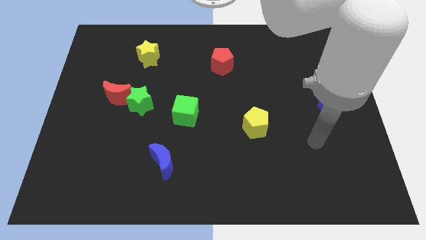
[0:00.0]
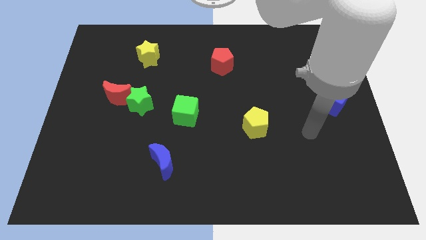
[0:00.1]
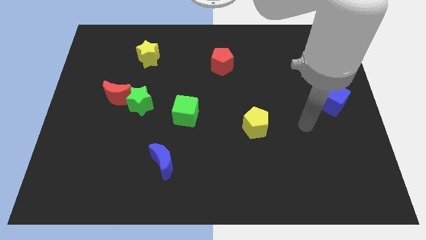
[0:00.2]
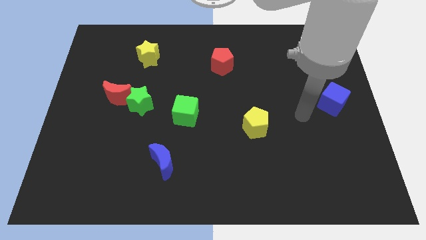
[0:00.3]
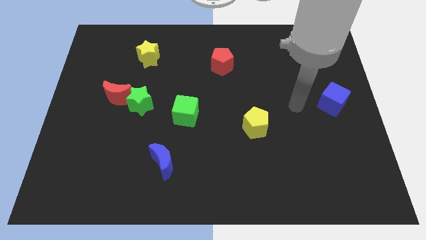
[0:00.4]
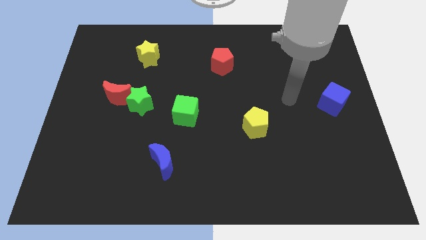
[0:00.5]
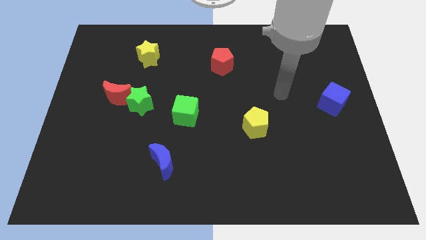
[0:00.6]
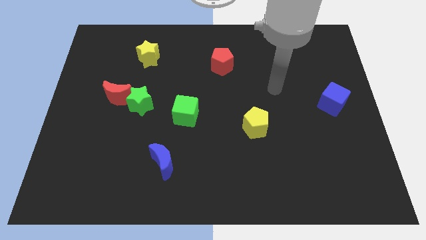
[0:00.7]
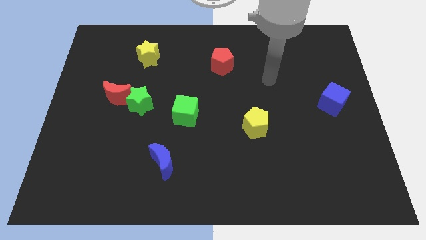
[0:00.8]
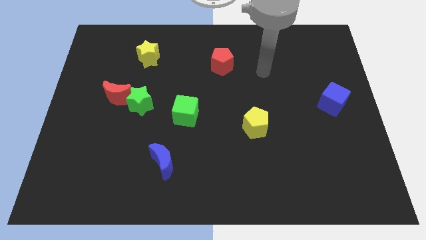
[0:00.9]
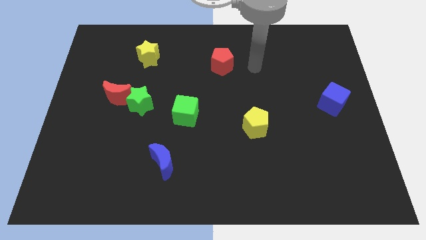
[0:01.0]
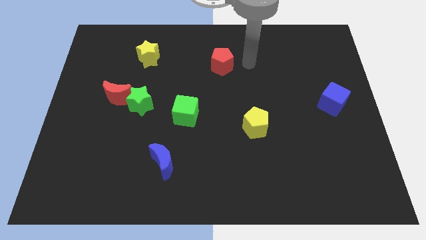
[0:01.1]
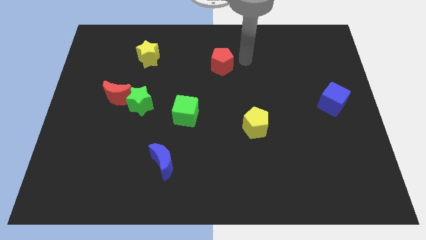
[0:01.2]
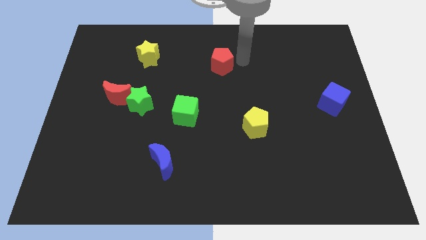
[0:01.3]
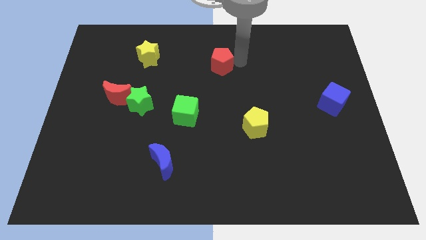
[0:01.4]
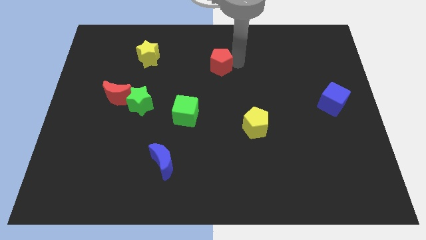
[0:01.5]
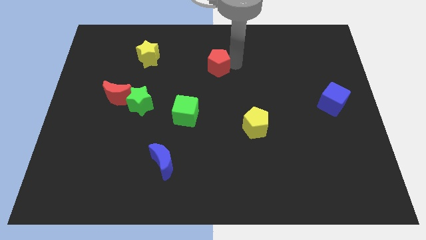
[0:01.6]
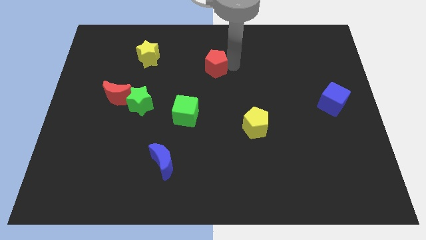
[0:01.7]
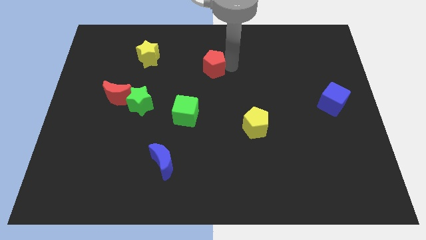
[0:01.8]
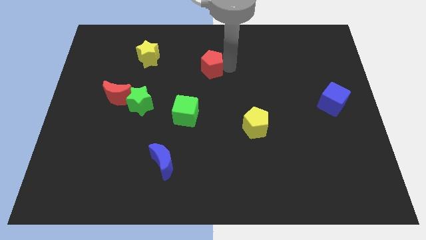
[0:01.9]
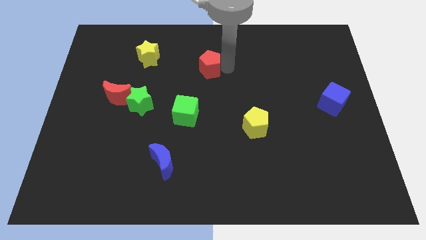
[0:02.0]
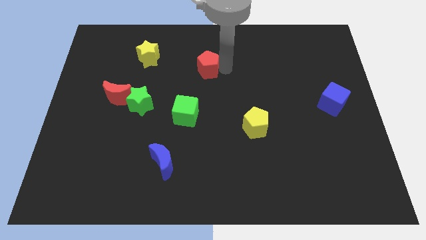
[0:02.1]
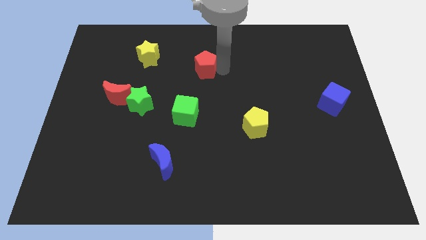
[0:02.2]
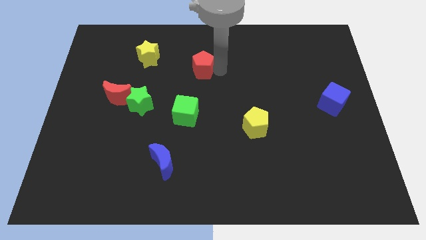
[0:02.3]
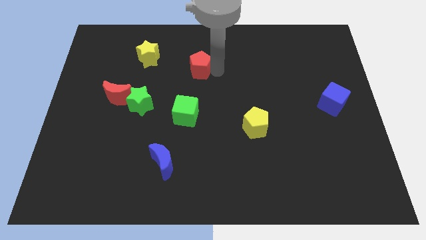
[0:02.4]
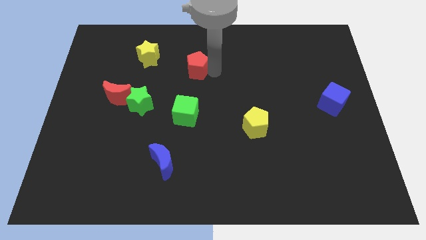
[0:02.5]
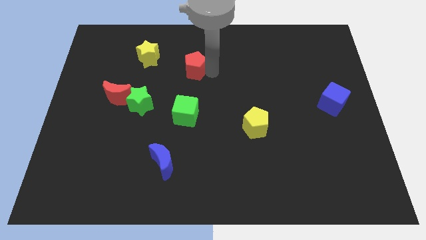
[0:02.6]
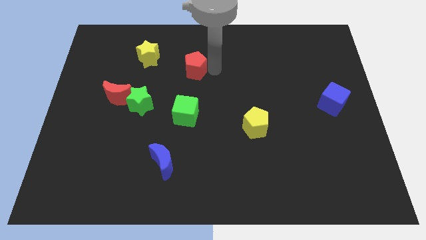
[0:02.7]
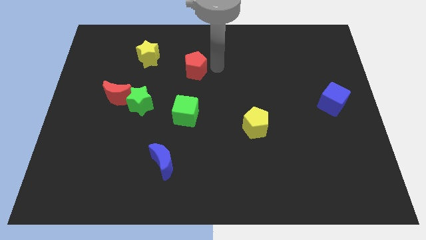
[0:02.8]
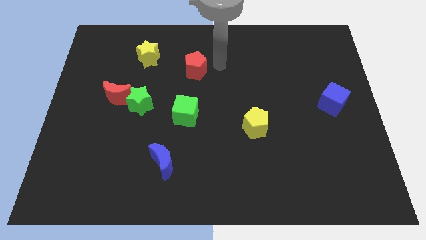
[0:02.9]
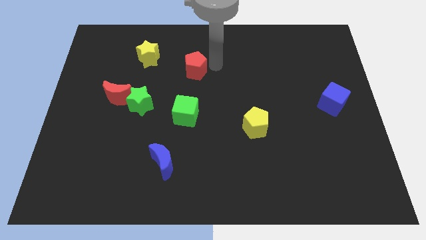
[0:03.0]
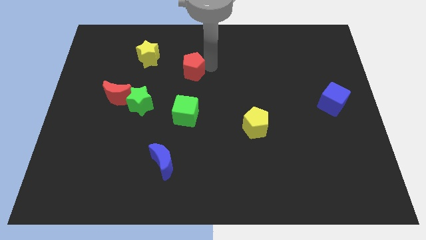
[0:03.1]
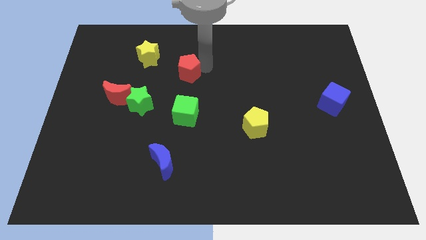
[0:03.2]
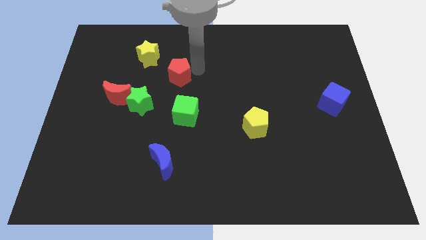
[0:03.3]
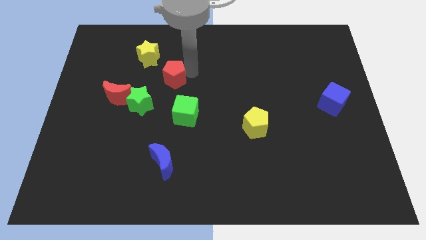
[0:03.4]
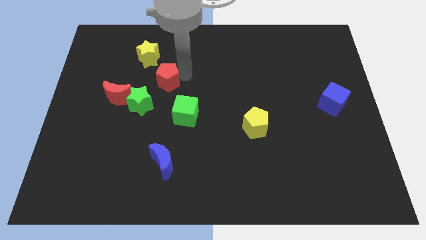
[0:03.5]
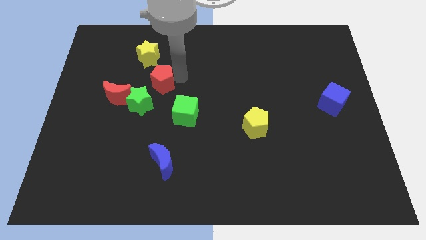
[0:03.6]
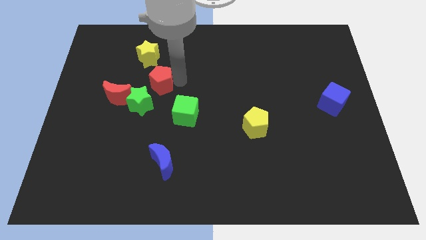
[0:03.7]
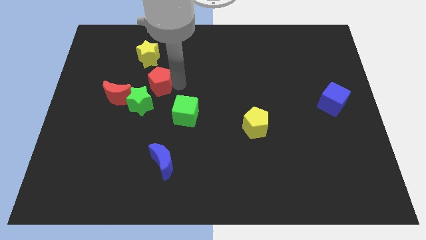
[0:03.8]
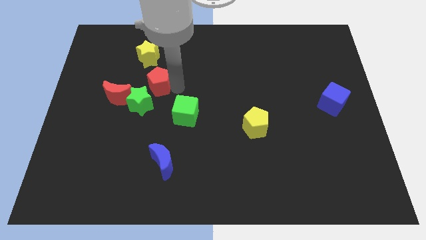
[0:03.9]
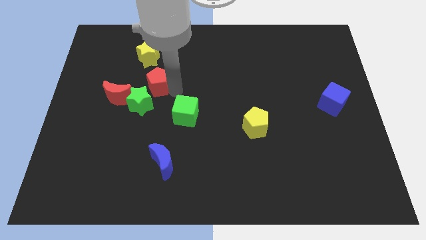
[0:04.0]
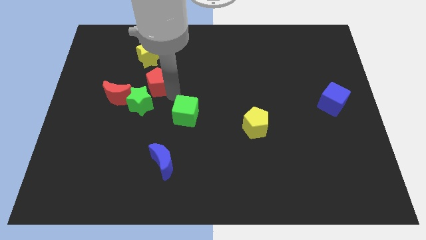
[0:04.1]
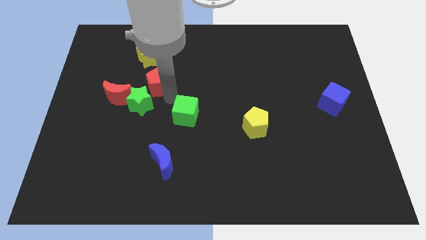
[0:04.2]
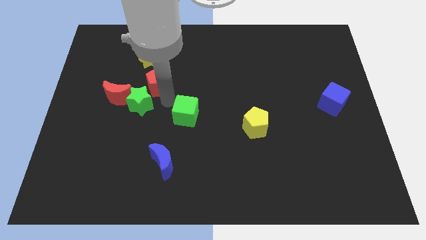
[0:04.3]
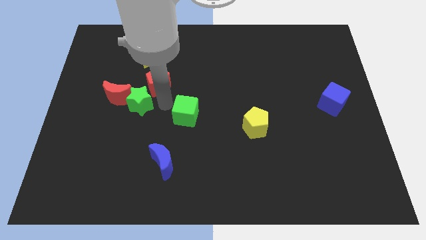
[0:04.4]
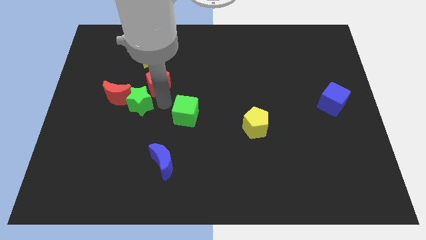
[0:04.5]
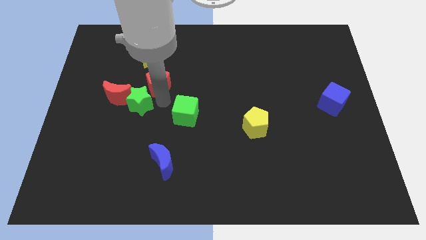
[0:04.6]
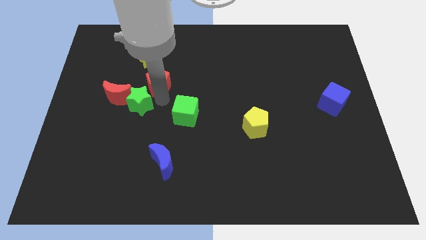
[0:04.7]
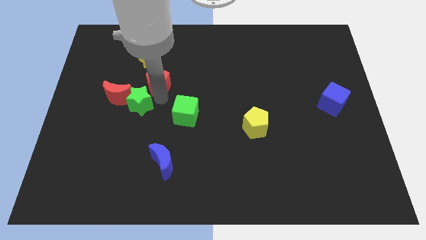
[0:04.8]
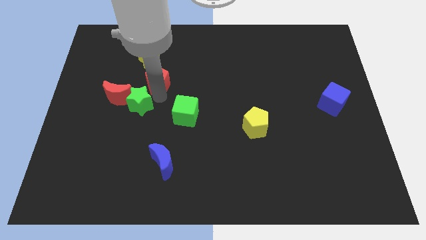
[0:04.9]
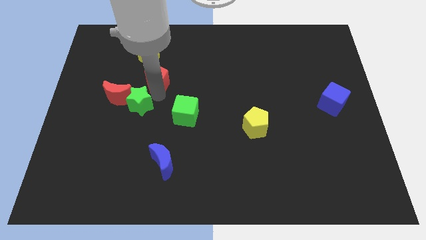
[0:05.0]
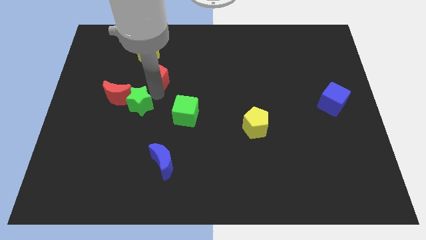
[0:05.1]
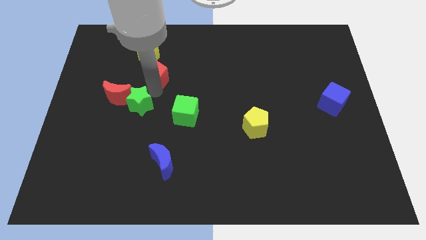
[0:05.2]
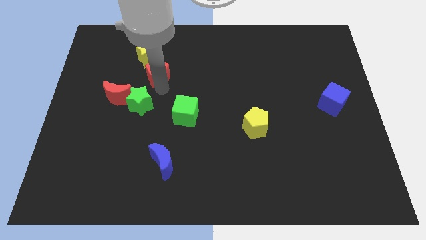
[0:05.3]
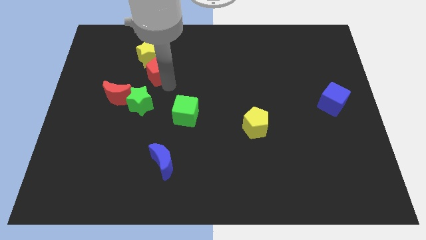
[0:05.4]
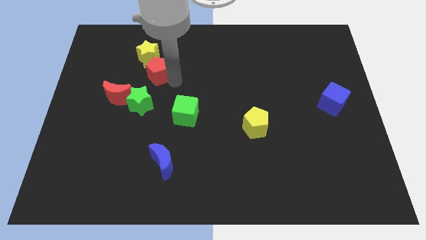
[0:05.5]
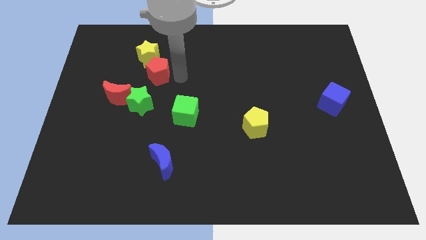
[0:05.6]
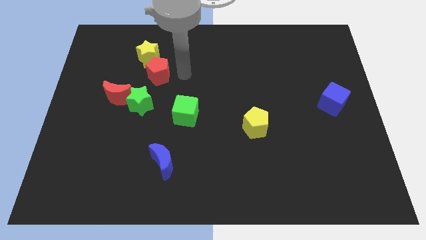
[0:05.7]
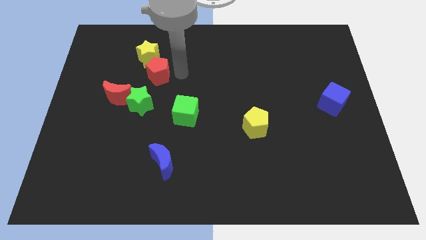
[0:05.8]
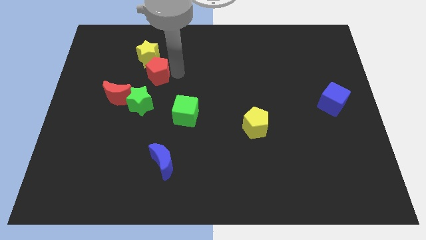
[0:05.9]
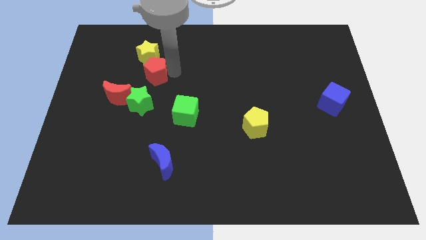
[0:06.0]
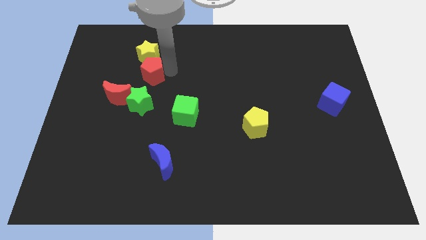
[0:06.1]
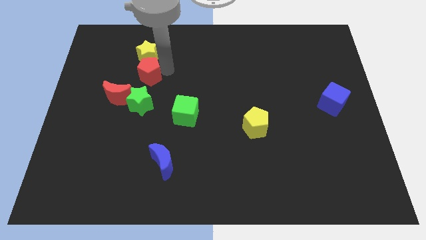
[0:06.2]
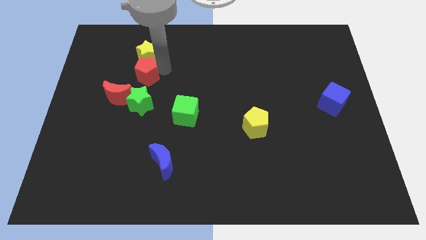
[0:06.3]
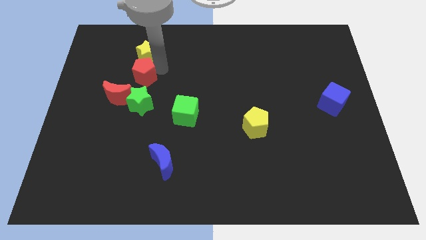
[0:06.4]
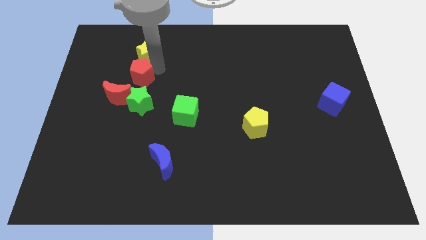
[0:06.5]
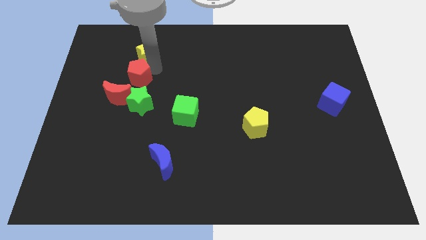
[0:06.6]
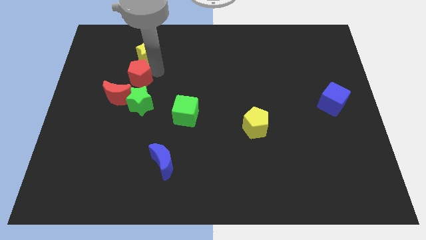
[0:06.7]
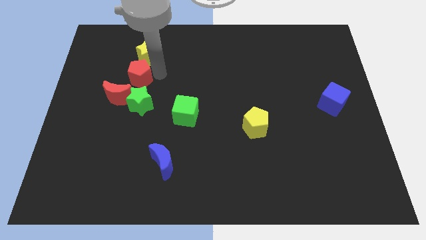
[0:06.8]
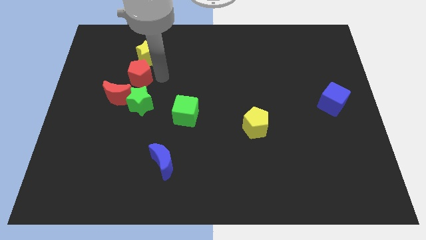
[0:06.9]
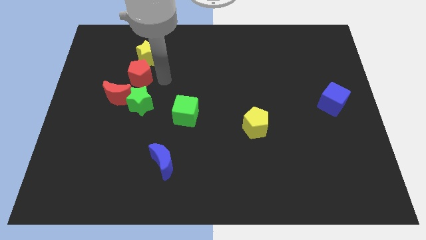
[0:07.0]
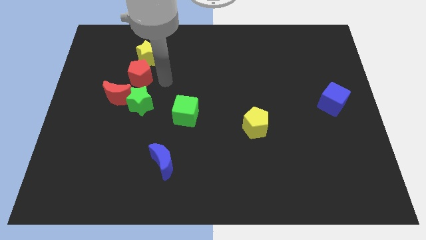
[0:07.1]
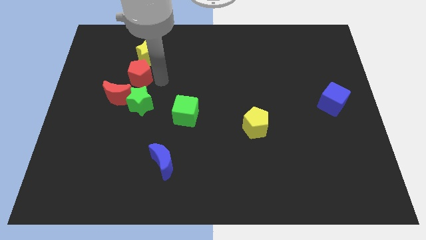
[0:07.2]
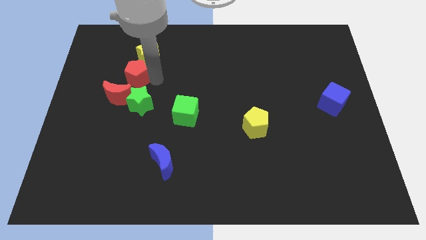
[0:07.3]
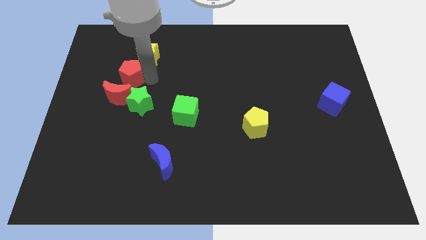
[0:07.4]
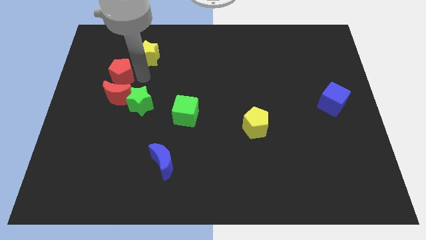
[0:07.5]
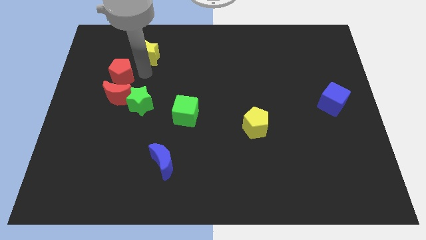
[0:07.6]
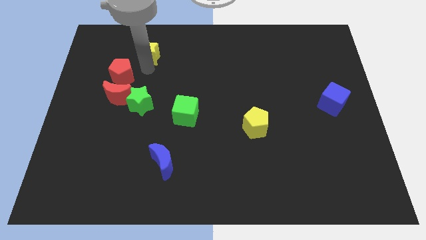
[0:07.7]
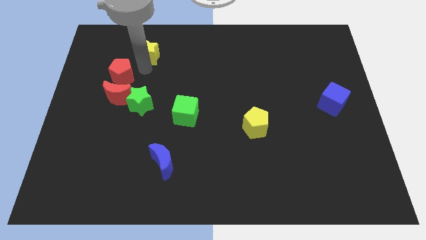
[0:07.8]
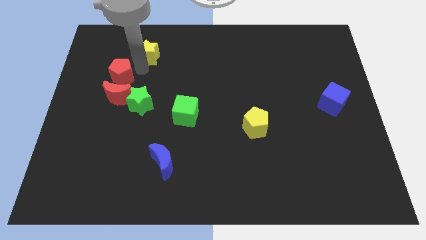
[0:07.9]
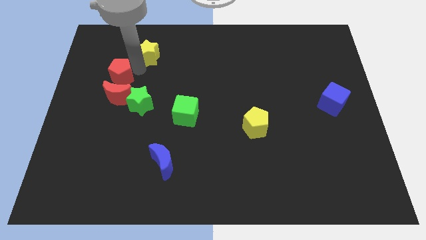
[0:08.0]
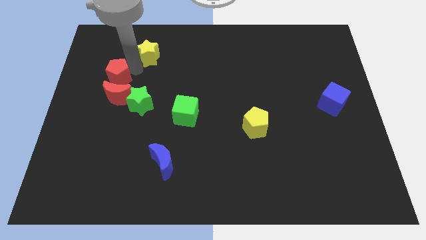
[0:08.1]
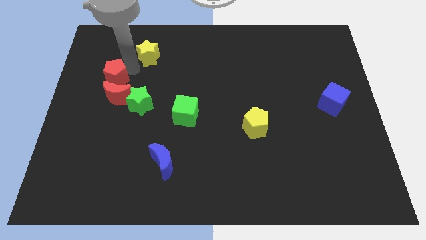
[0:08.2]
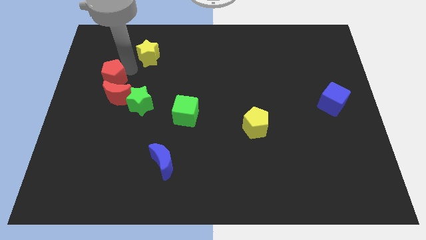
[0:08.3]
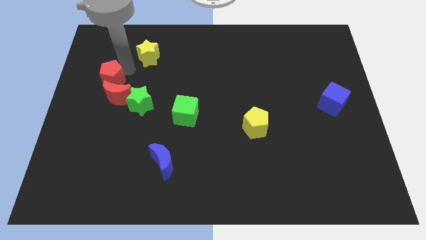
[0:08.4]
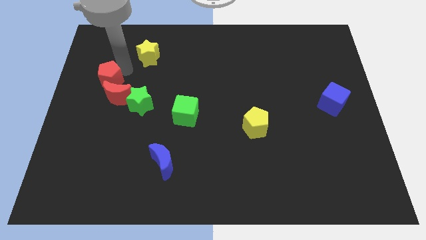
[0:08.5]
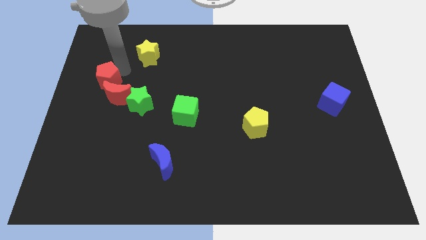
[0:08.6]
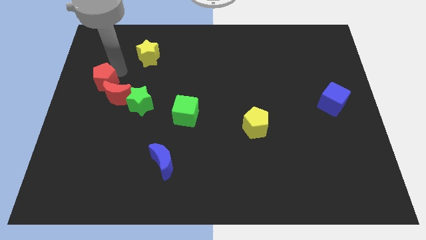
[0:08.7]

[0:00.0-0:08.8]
push the red pentagon to the center left
